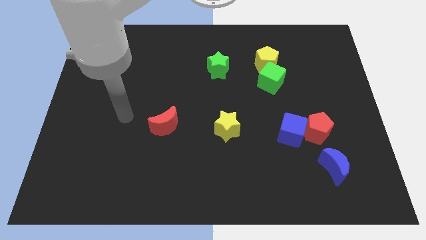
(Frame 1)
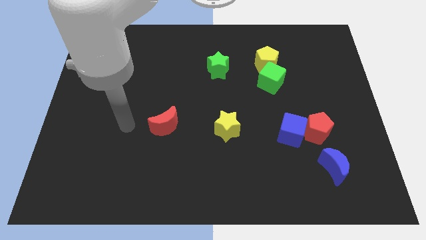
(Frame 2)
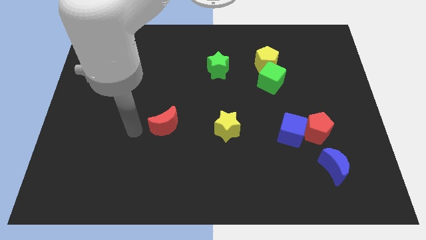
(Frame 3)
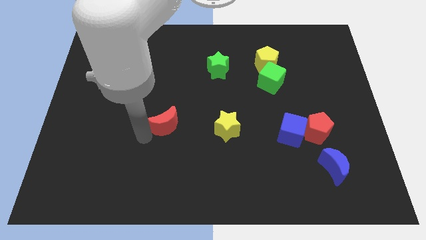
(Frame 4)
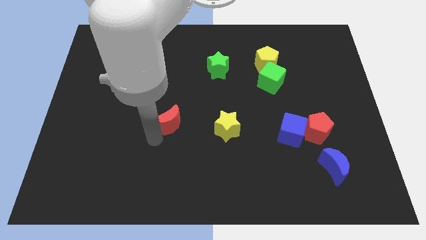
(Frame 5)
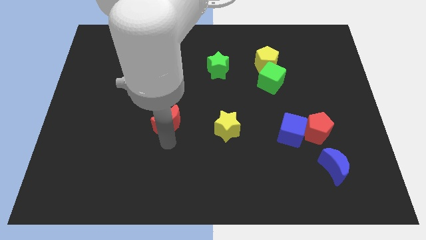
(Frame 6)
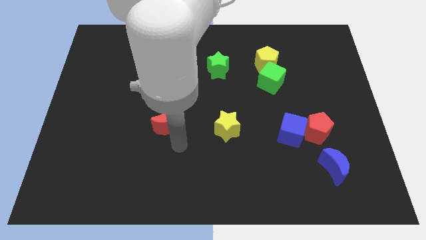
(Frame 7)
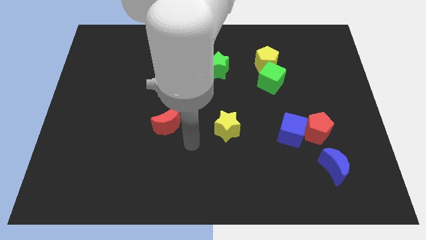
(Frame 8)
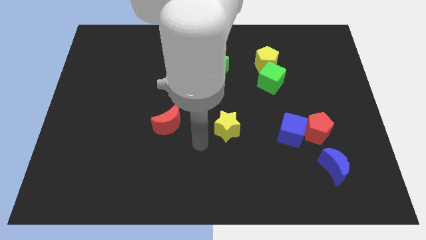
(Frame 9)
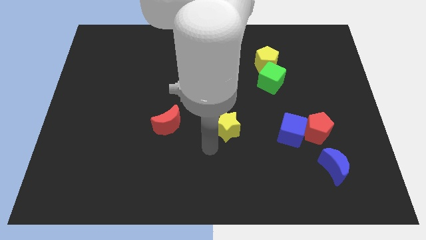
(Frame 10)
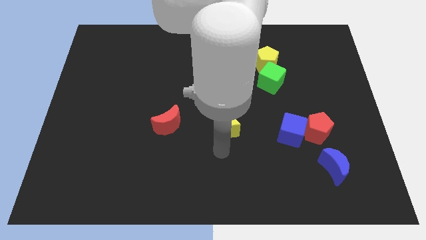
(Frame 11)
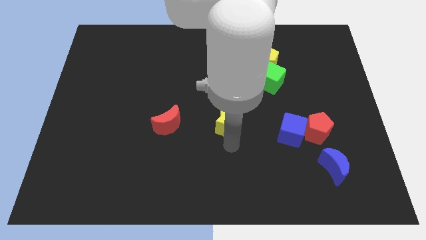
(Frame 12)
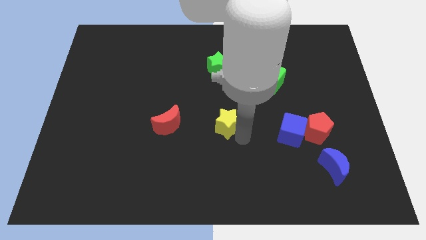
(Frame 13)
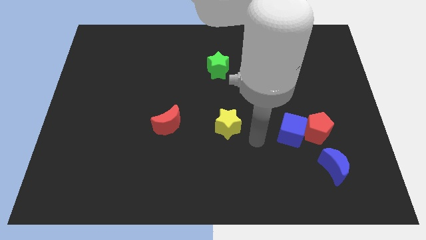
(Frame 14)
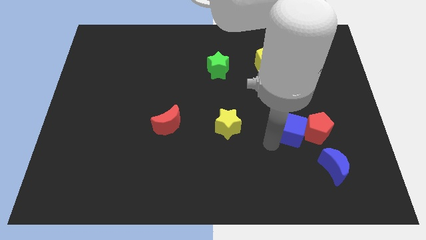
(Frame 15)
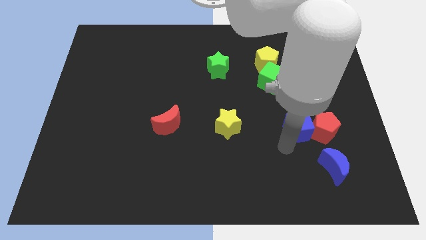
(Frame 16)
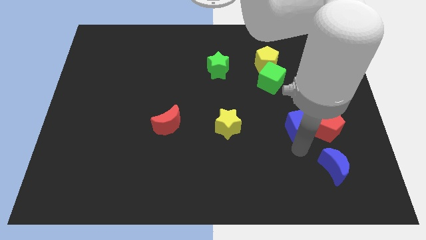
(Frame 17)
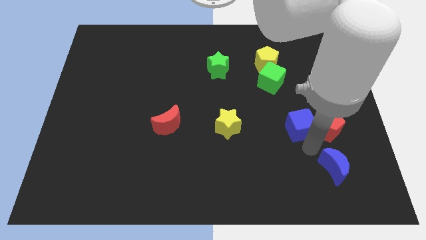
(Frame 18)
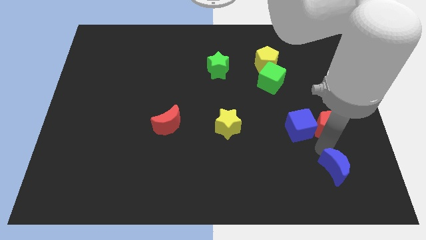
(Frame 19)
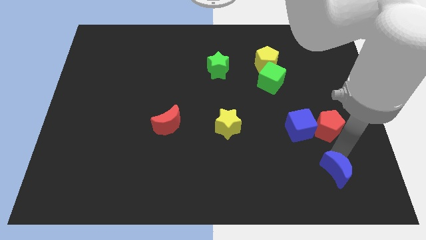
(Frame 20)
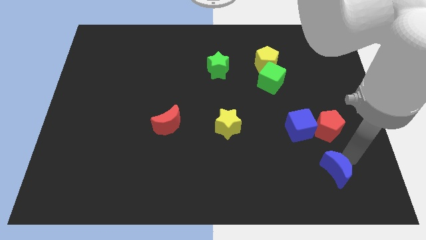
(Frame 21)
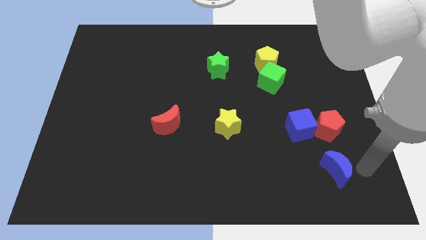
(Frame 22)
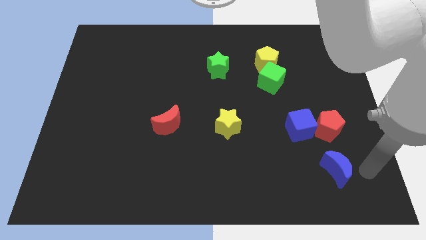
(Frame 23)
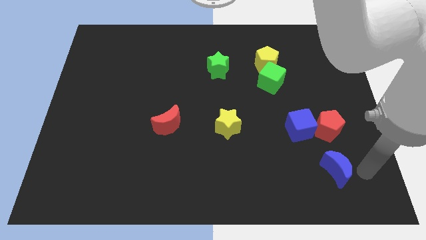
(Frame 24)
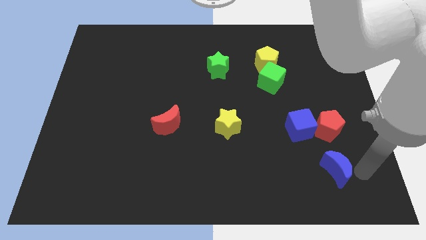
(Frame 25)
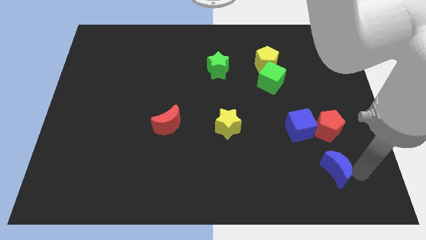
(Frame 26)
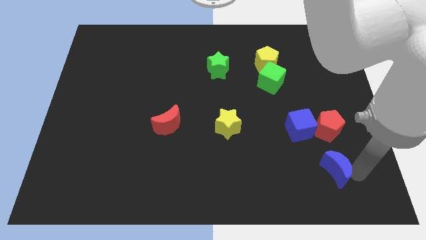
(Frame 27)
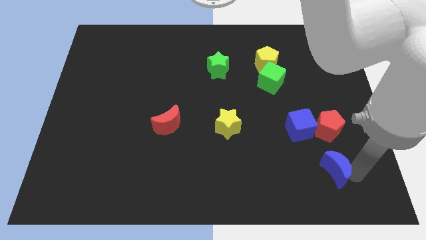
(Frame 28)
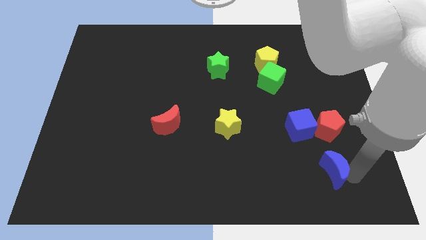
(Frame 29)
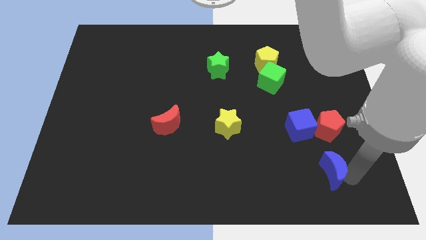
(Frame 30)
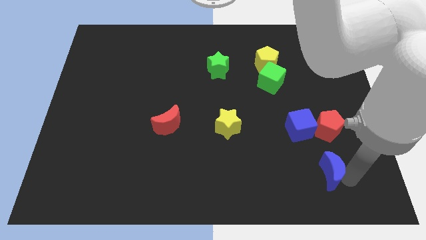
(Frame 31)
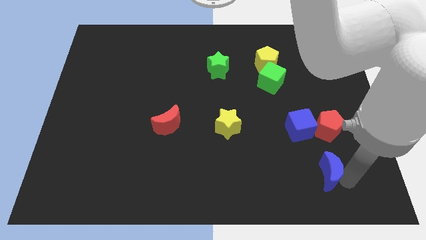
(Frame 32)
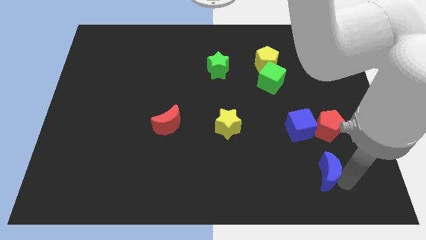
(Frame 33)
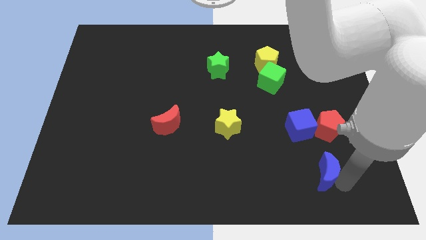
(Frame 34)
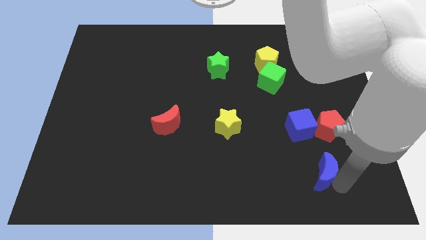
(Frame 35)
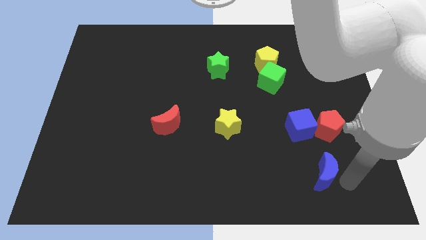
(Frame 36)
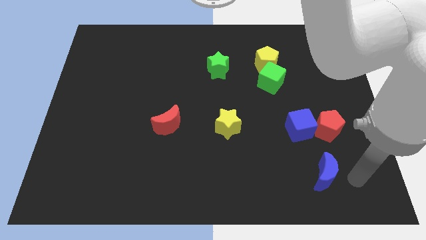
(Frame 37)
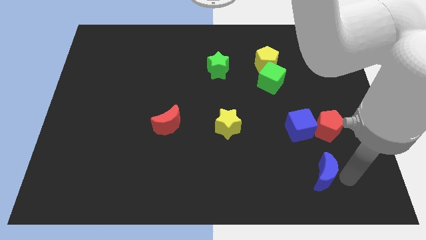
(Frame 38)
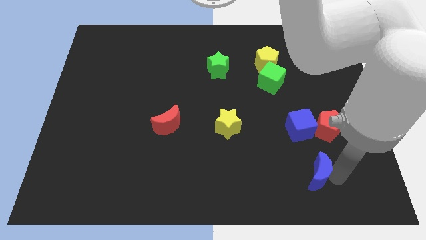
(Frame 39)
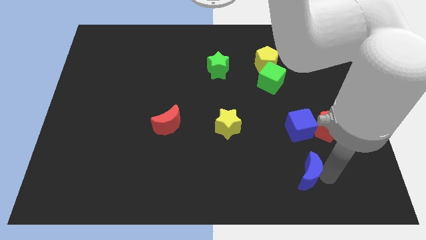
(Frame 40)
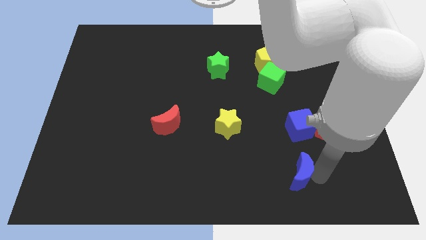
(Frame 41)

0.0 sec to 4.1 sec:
slightly move the blue moon to the left

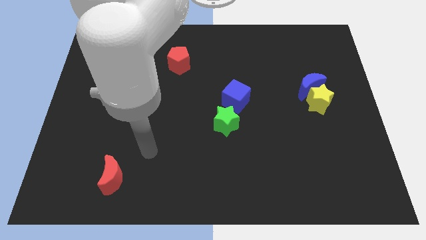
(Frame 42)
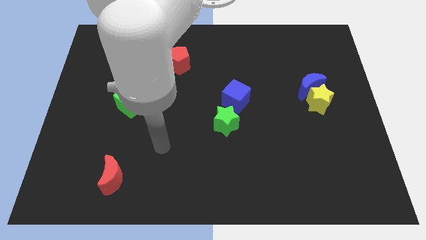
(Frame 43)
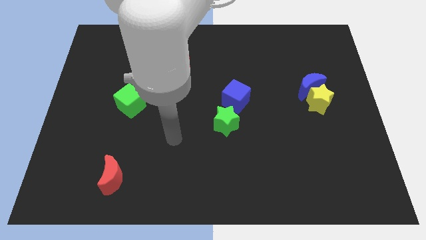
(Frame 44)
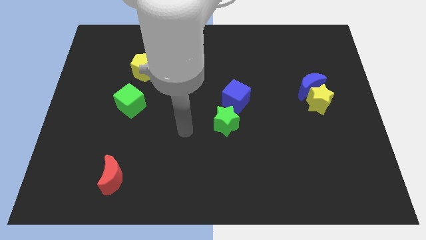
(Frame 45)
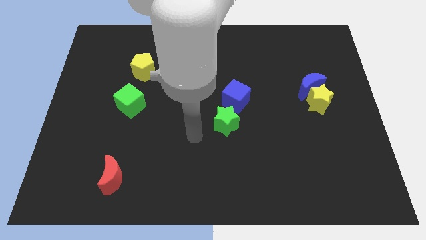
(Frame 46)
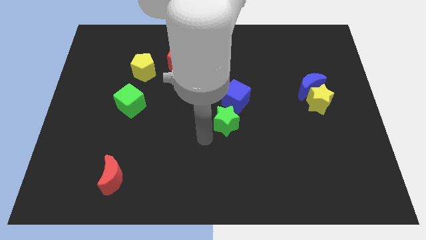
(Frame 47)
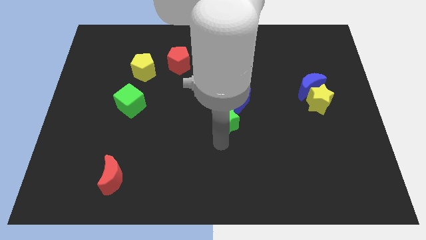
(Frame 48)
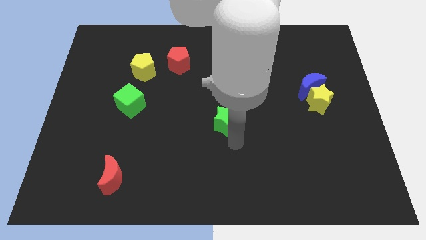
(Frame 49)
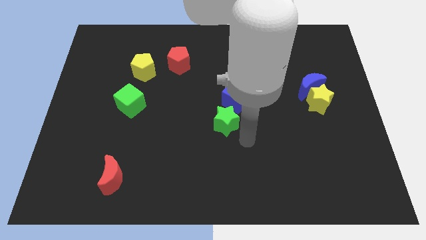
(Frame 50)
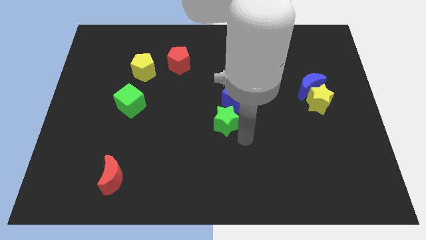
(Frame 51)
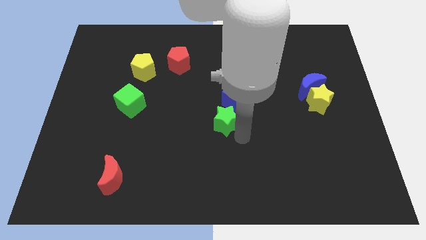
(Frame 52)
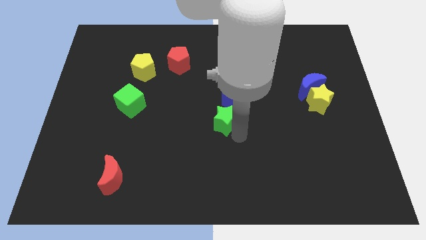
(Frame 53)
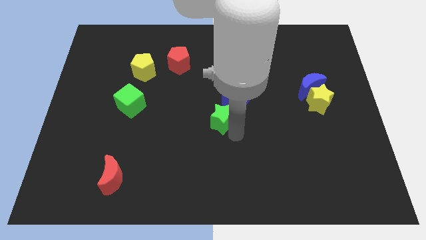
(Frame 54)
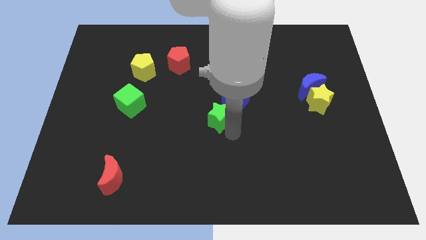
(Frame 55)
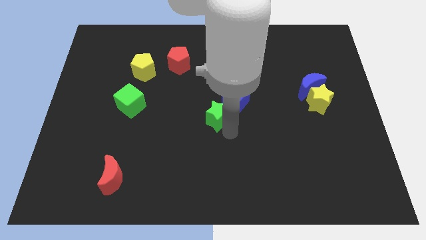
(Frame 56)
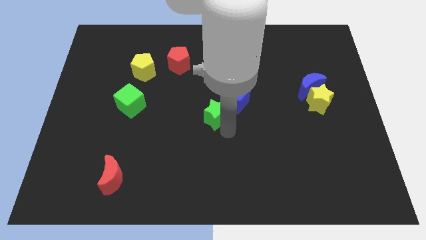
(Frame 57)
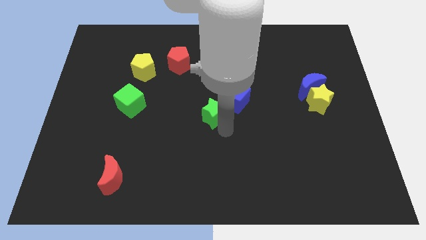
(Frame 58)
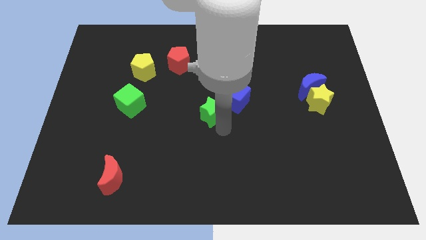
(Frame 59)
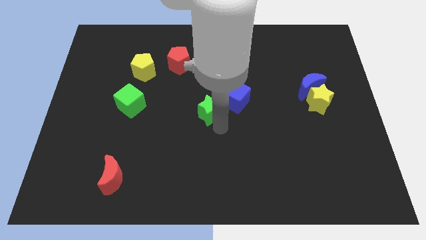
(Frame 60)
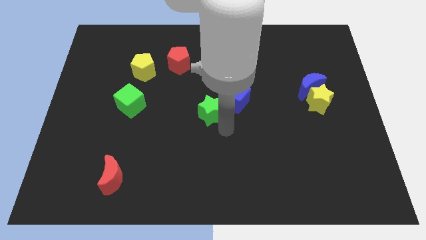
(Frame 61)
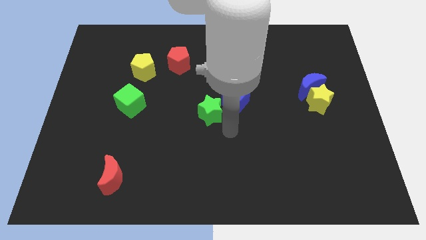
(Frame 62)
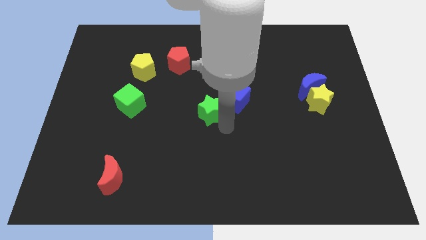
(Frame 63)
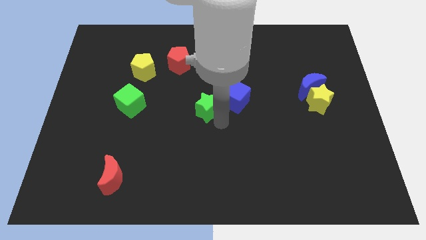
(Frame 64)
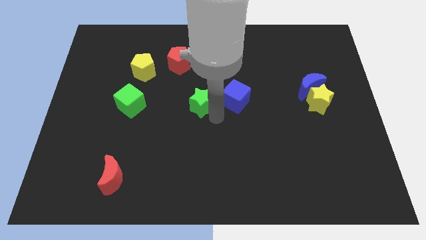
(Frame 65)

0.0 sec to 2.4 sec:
slightly push the green star up and to the left

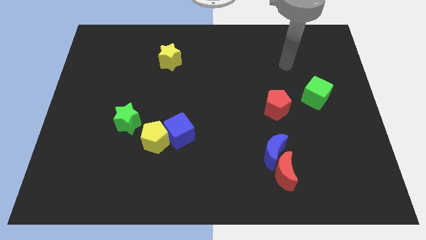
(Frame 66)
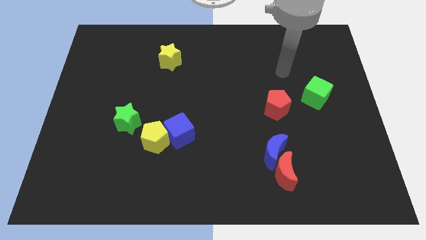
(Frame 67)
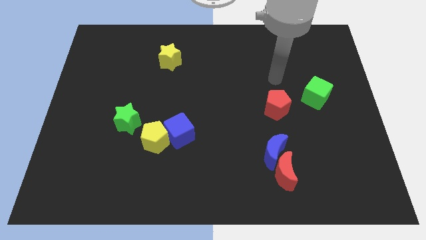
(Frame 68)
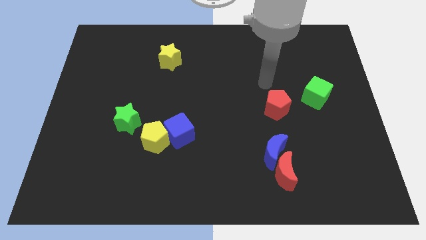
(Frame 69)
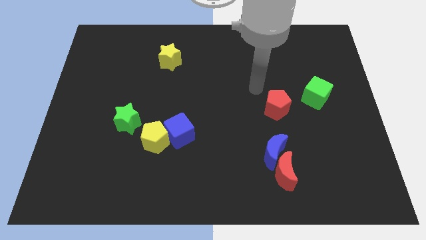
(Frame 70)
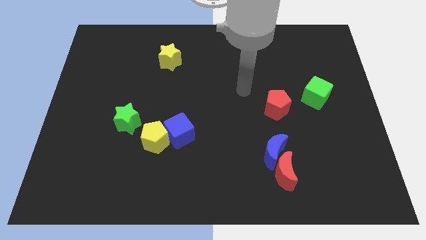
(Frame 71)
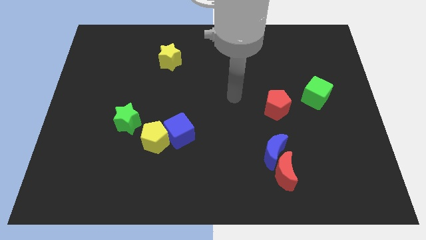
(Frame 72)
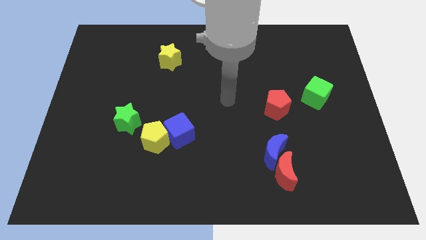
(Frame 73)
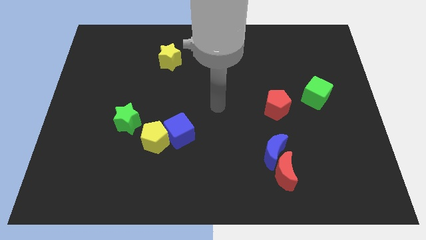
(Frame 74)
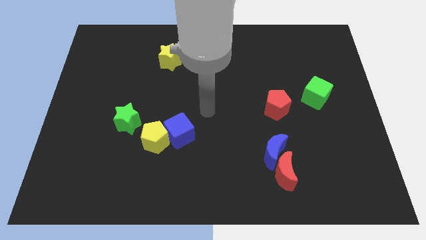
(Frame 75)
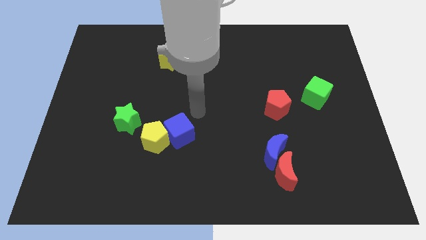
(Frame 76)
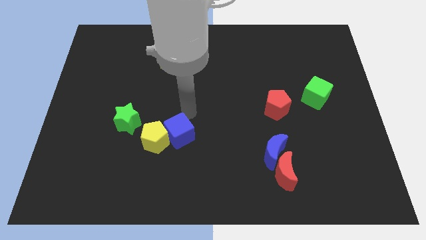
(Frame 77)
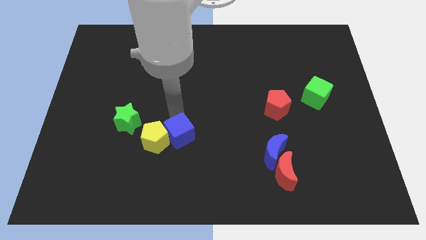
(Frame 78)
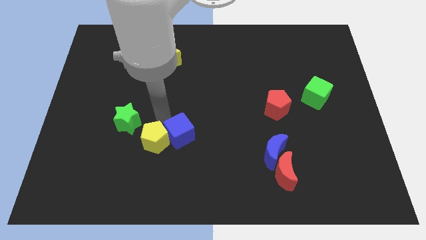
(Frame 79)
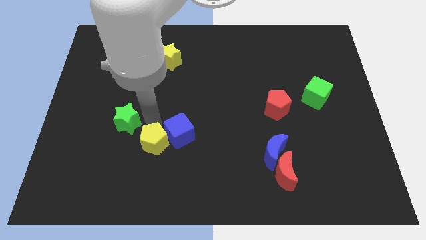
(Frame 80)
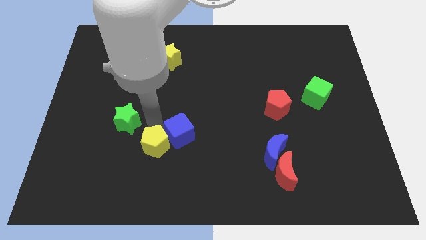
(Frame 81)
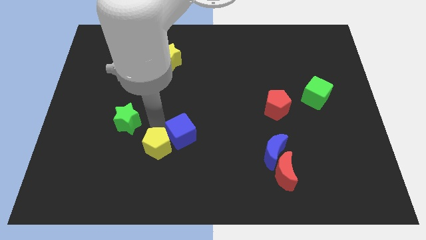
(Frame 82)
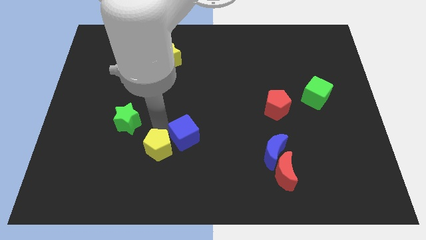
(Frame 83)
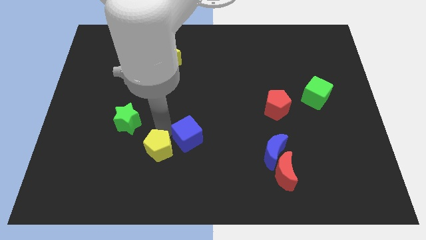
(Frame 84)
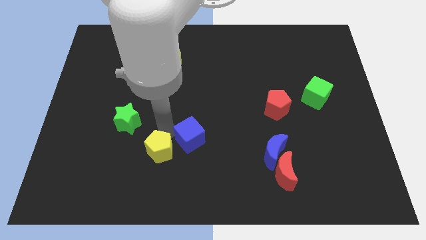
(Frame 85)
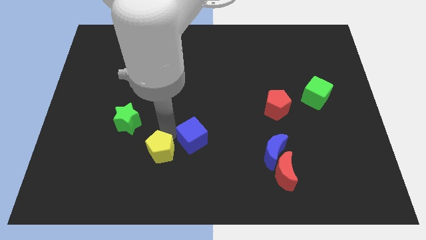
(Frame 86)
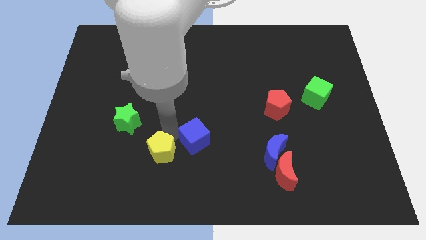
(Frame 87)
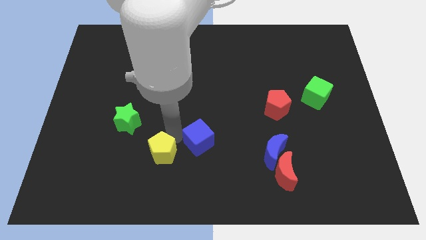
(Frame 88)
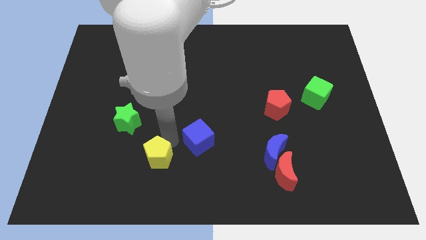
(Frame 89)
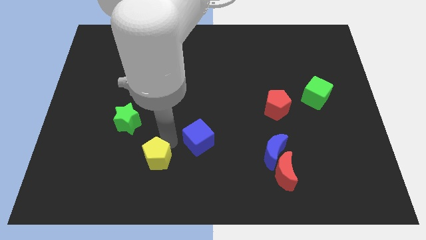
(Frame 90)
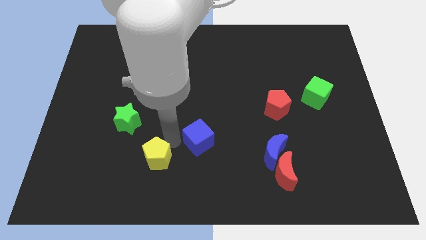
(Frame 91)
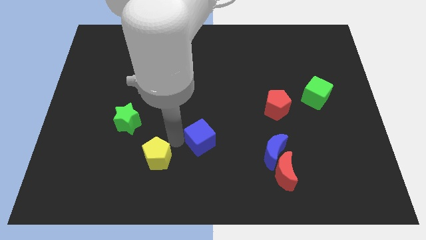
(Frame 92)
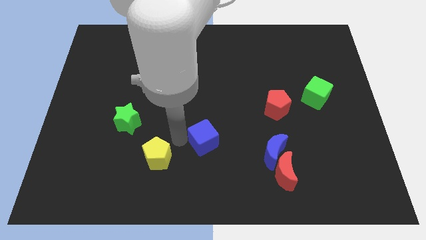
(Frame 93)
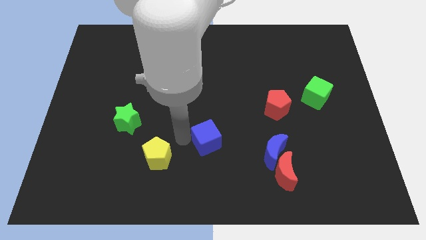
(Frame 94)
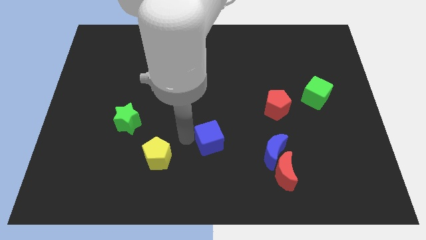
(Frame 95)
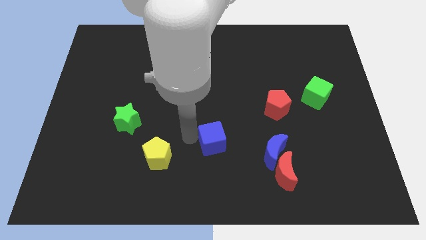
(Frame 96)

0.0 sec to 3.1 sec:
move the blue cube right somewhat
